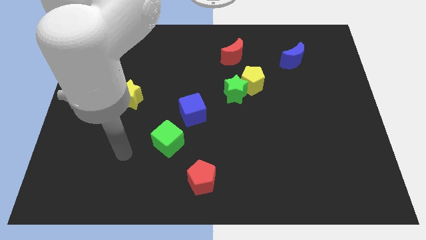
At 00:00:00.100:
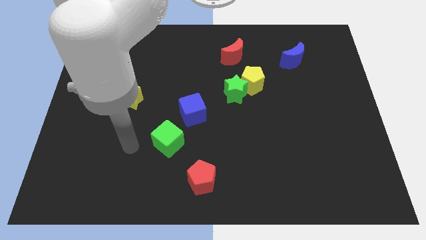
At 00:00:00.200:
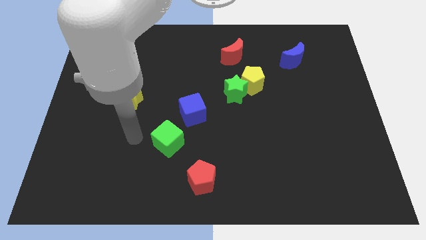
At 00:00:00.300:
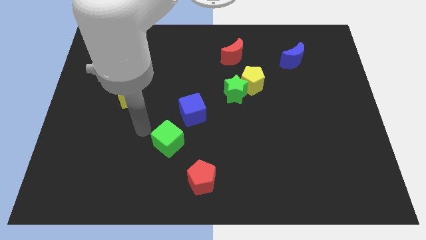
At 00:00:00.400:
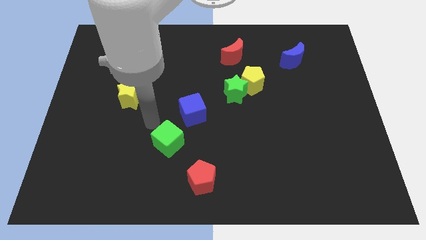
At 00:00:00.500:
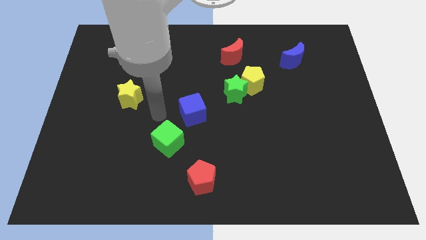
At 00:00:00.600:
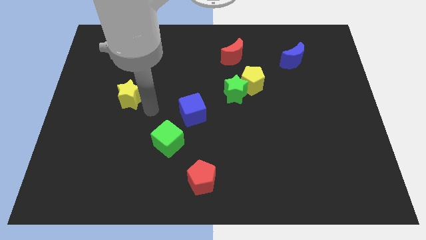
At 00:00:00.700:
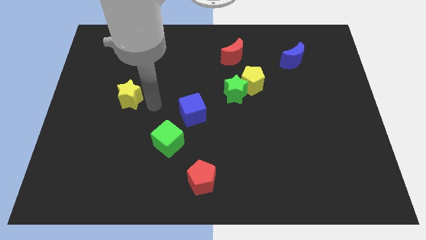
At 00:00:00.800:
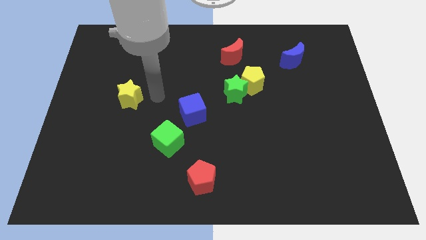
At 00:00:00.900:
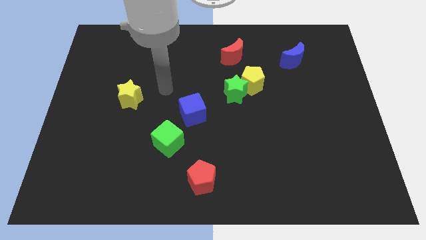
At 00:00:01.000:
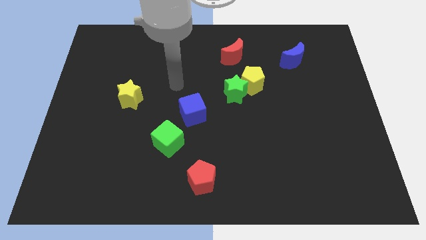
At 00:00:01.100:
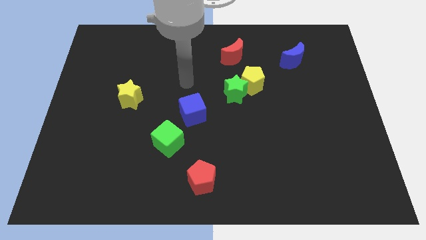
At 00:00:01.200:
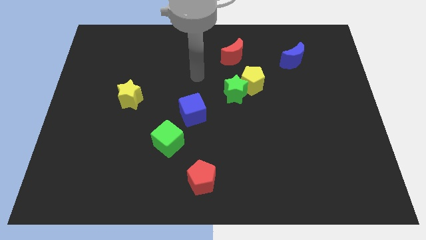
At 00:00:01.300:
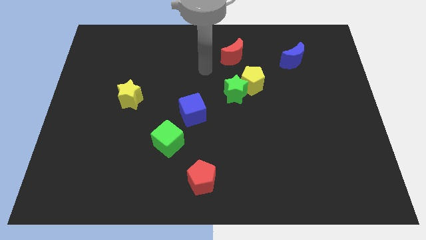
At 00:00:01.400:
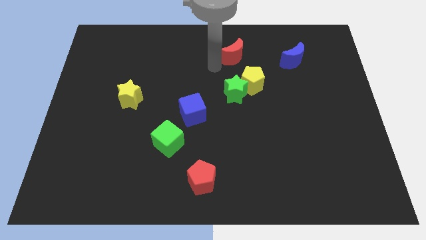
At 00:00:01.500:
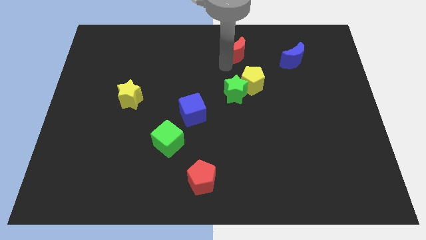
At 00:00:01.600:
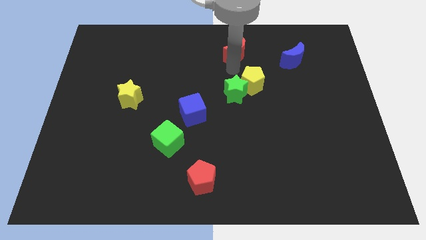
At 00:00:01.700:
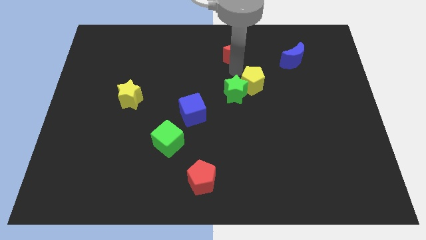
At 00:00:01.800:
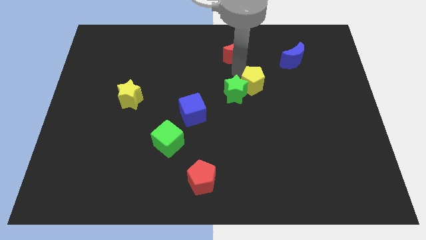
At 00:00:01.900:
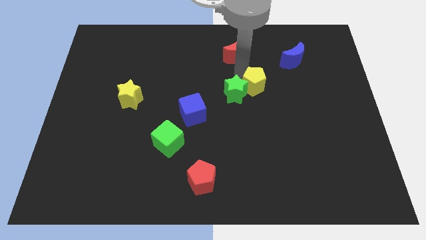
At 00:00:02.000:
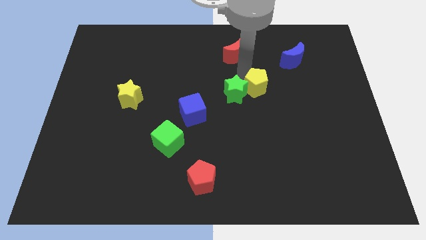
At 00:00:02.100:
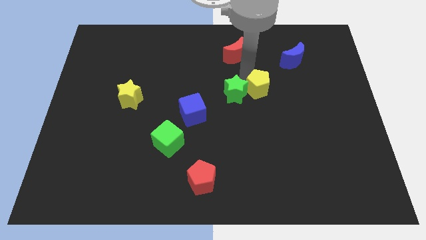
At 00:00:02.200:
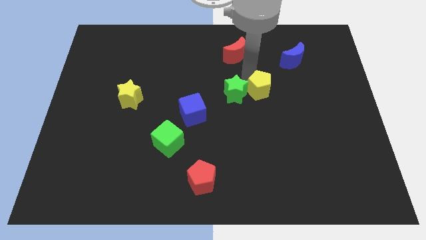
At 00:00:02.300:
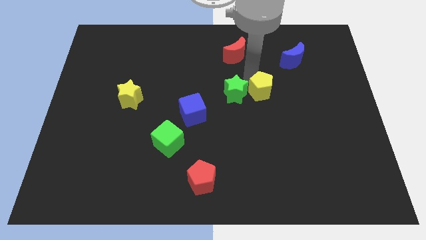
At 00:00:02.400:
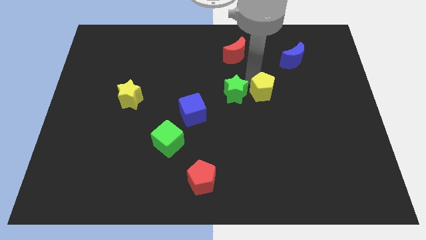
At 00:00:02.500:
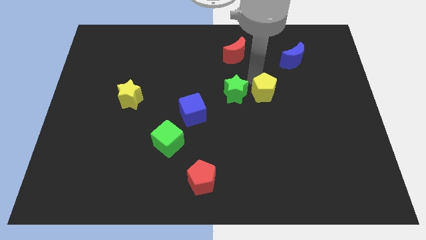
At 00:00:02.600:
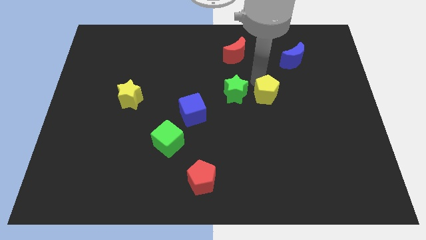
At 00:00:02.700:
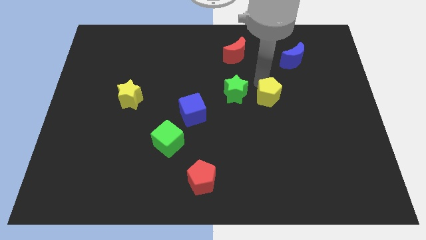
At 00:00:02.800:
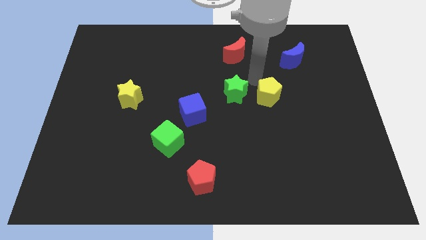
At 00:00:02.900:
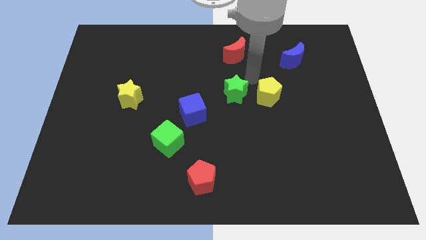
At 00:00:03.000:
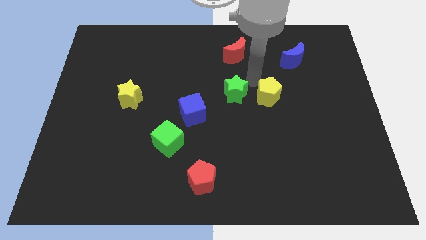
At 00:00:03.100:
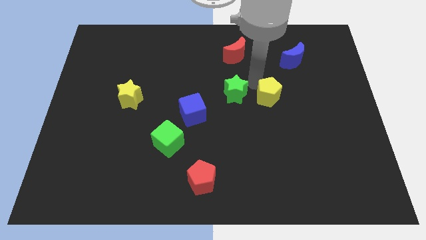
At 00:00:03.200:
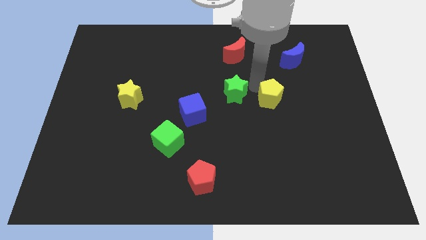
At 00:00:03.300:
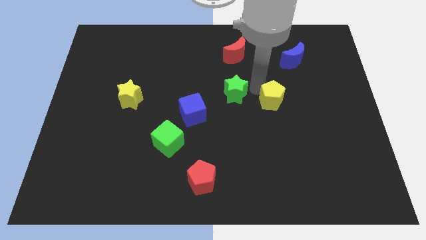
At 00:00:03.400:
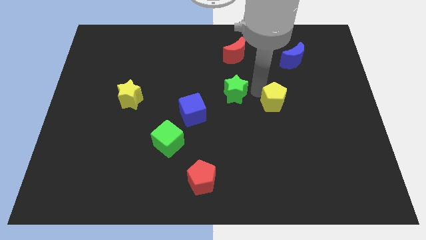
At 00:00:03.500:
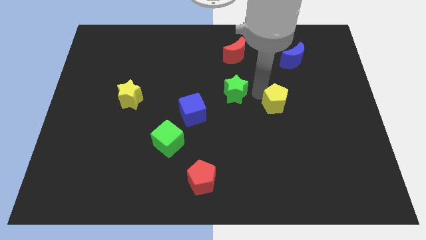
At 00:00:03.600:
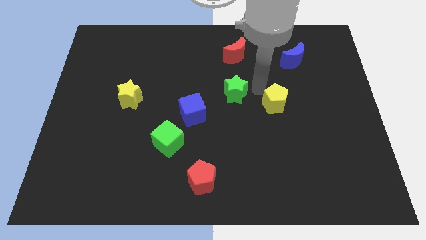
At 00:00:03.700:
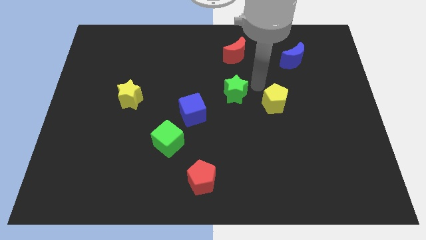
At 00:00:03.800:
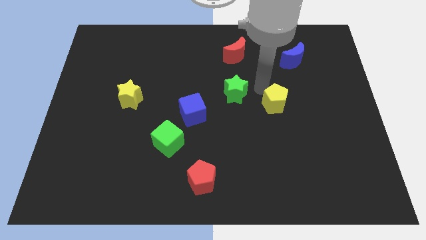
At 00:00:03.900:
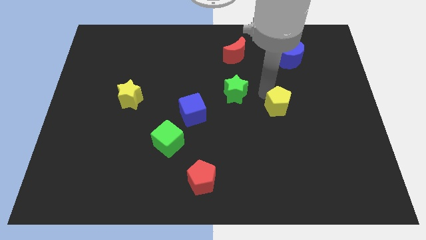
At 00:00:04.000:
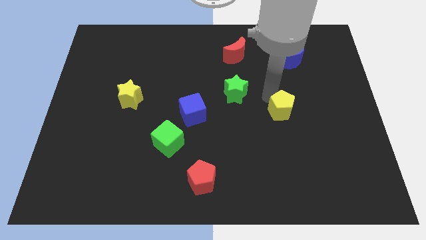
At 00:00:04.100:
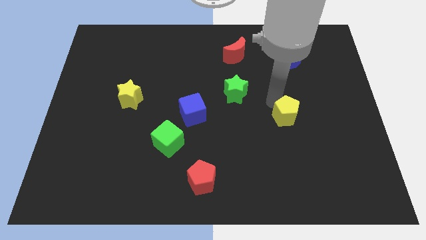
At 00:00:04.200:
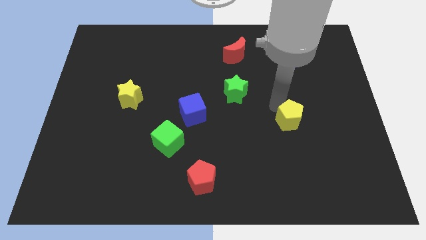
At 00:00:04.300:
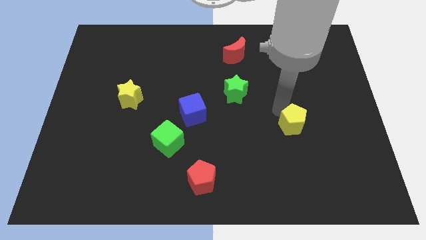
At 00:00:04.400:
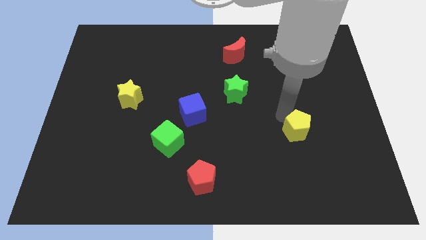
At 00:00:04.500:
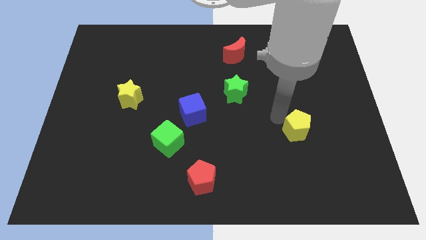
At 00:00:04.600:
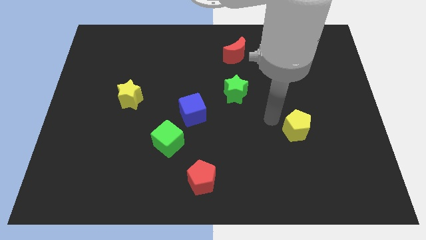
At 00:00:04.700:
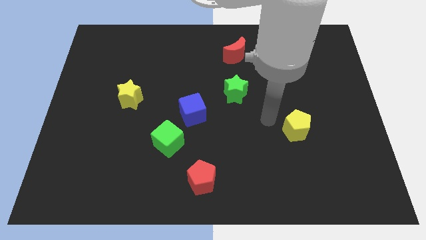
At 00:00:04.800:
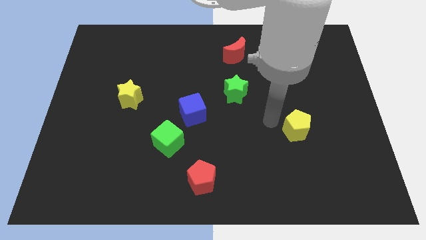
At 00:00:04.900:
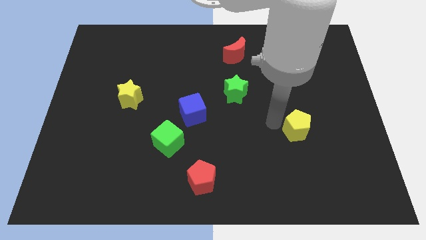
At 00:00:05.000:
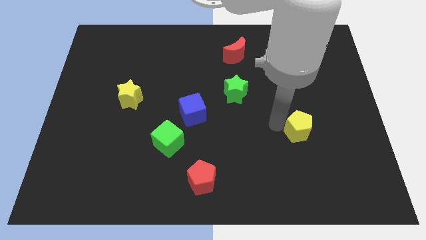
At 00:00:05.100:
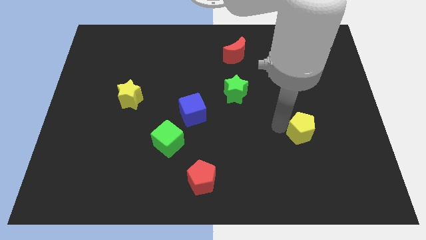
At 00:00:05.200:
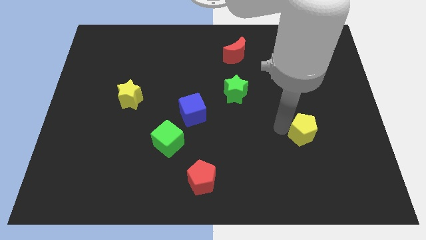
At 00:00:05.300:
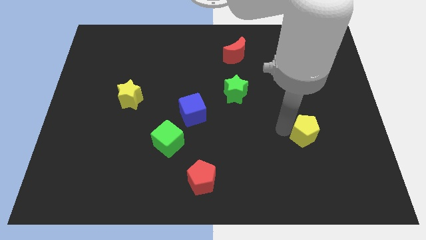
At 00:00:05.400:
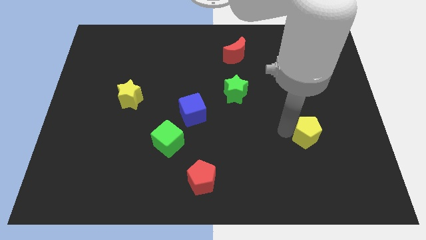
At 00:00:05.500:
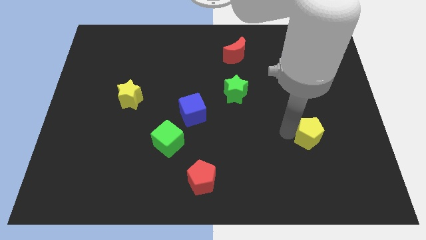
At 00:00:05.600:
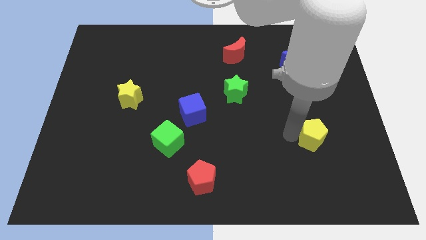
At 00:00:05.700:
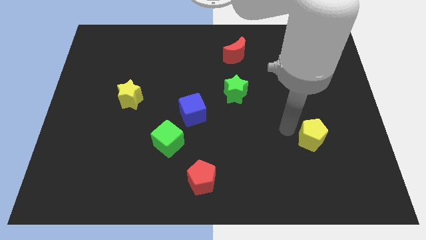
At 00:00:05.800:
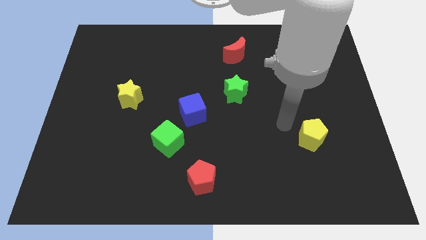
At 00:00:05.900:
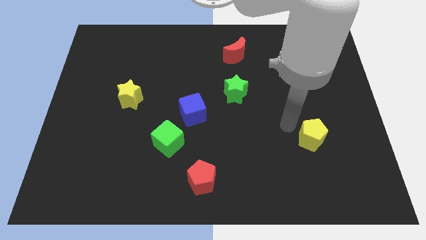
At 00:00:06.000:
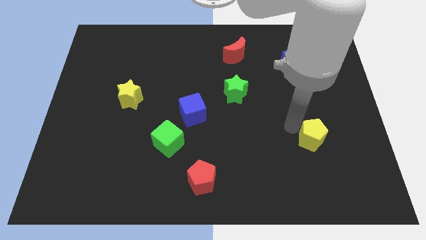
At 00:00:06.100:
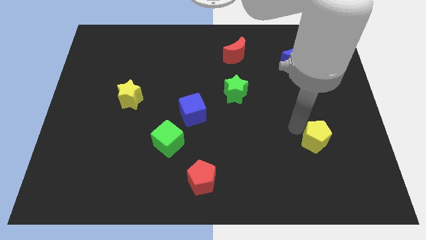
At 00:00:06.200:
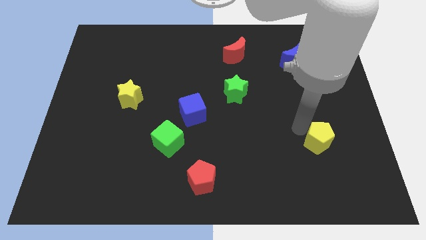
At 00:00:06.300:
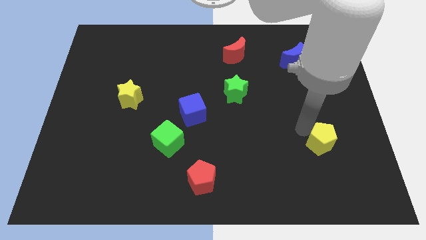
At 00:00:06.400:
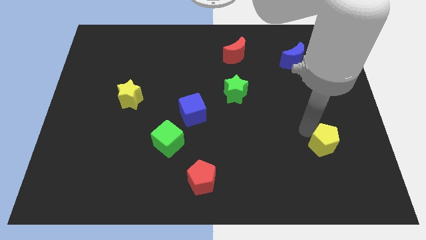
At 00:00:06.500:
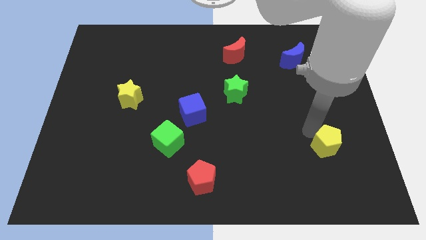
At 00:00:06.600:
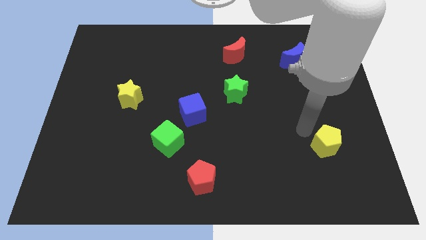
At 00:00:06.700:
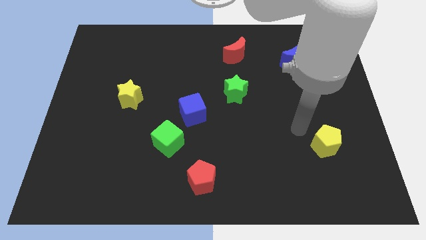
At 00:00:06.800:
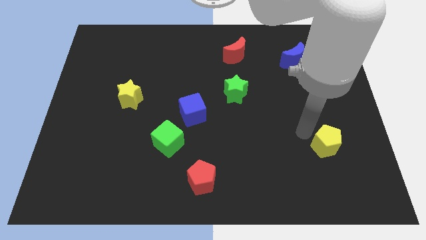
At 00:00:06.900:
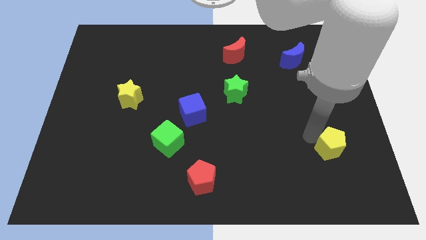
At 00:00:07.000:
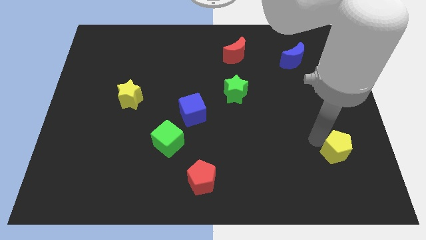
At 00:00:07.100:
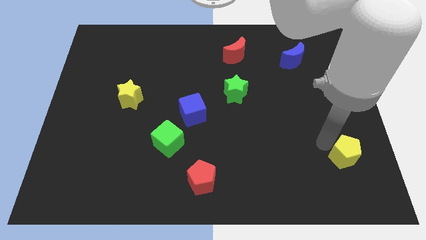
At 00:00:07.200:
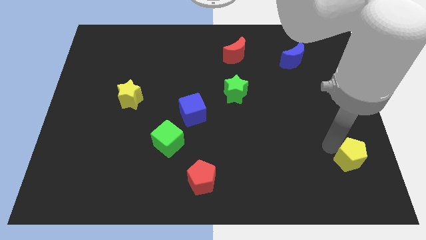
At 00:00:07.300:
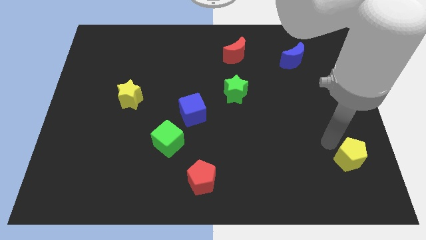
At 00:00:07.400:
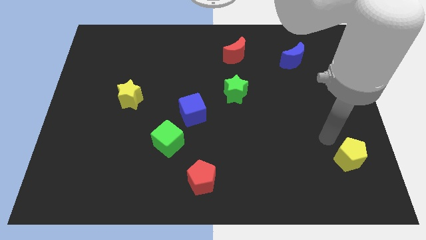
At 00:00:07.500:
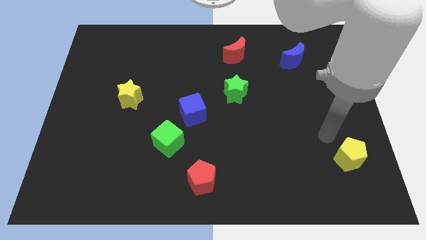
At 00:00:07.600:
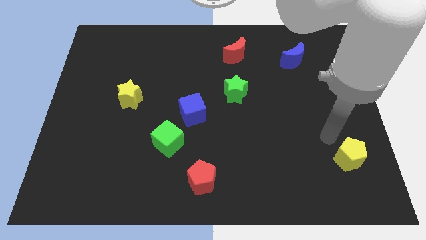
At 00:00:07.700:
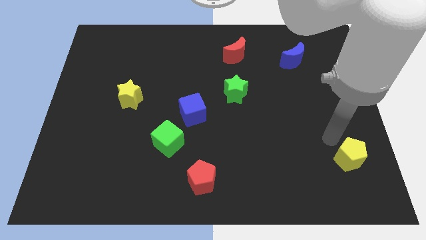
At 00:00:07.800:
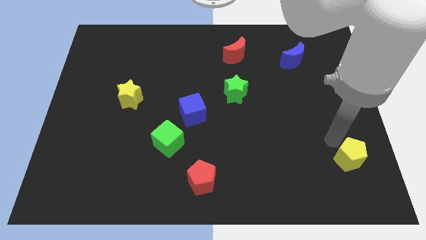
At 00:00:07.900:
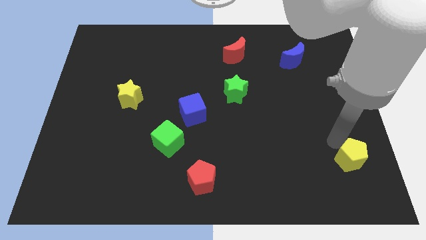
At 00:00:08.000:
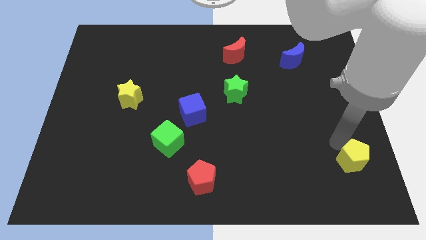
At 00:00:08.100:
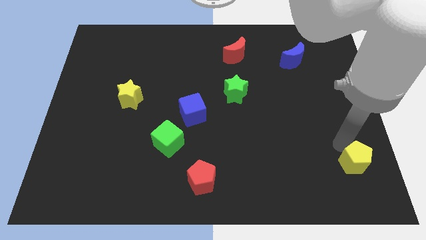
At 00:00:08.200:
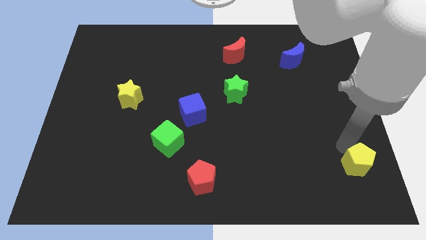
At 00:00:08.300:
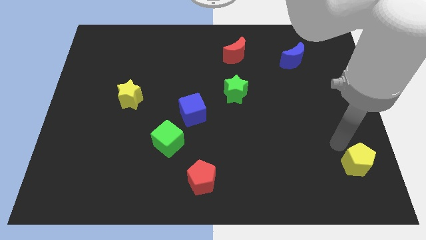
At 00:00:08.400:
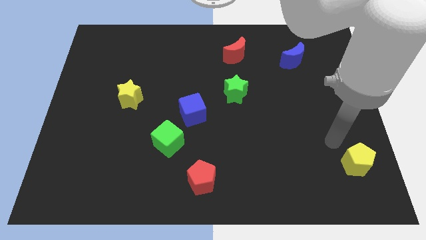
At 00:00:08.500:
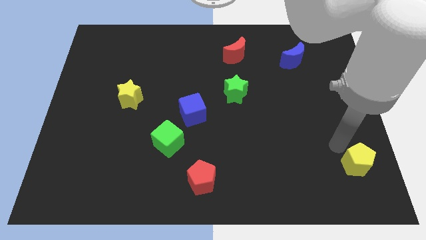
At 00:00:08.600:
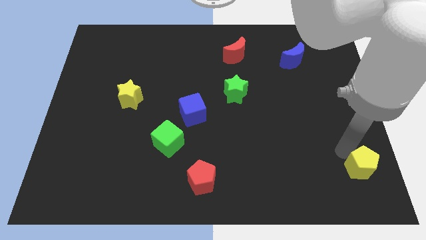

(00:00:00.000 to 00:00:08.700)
move the yellow pentagon to the bottom right of the board
